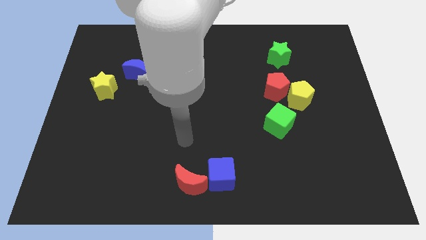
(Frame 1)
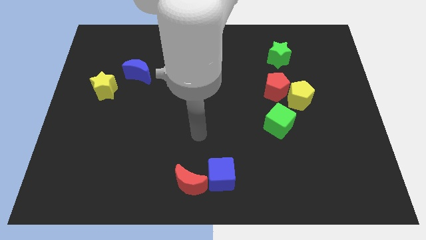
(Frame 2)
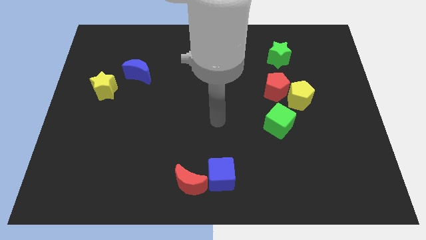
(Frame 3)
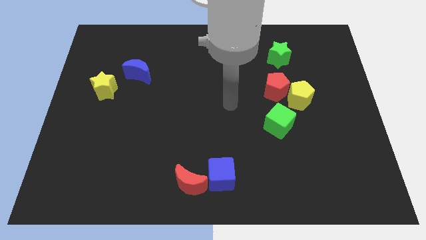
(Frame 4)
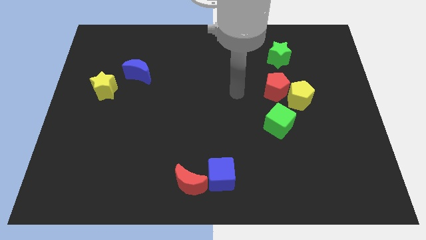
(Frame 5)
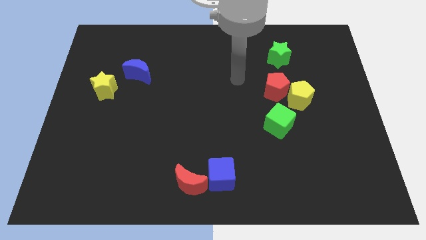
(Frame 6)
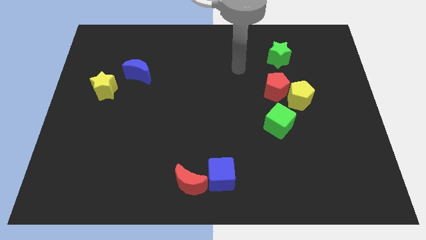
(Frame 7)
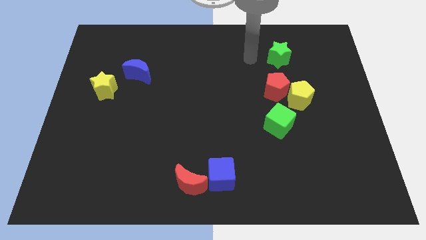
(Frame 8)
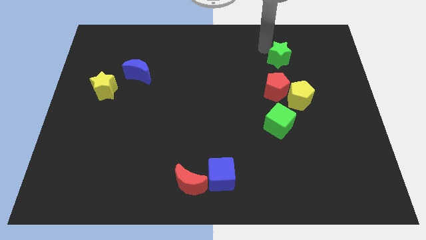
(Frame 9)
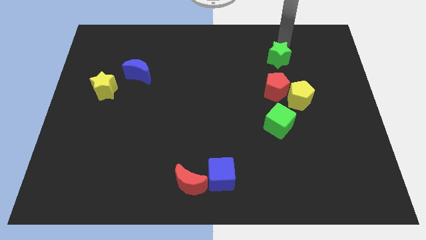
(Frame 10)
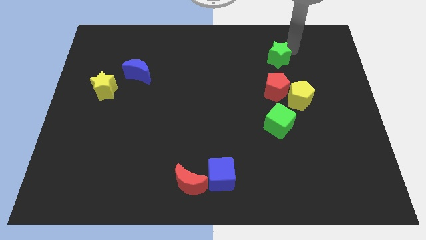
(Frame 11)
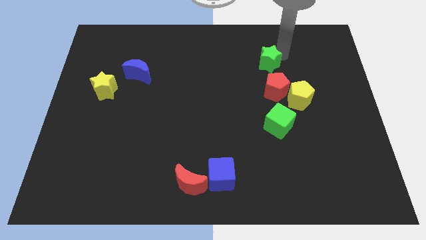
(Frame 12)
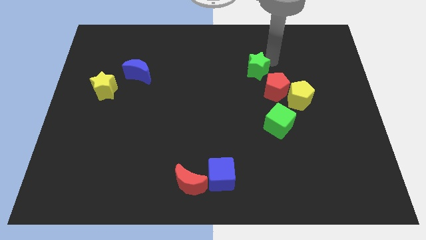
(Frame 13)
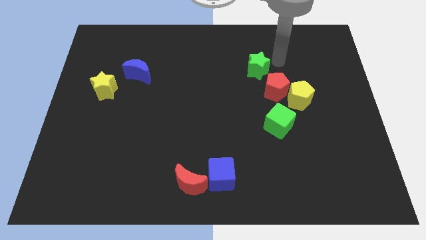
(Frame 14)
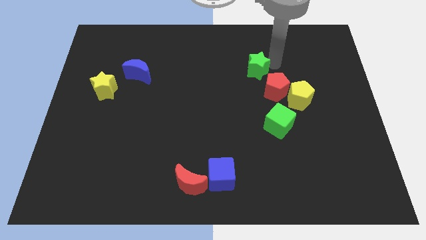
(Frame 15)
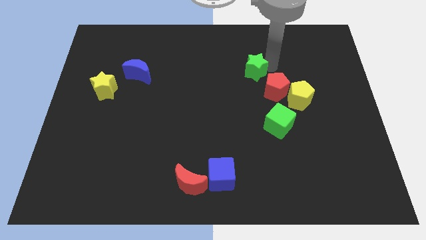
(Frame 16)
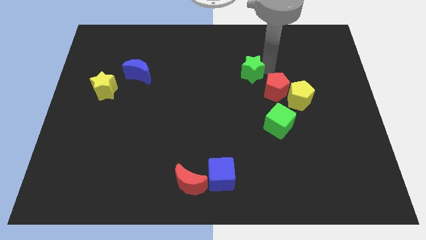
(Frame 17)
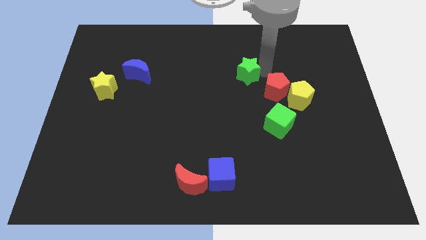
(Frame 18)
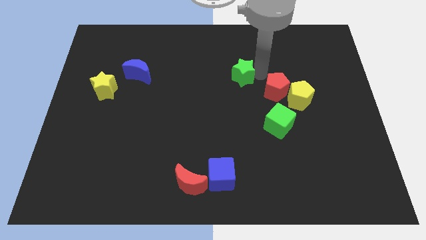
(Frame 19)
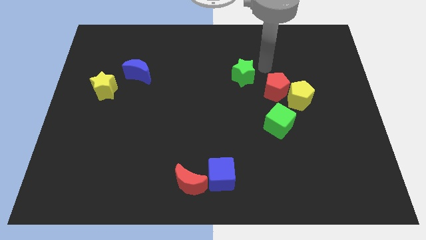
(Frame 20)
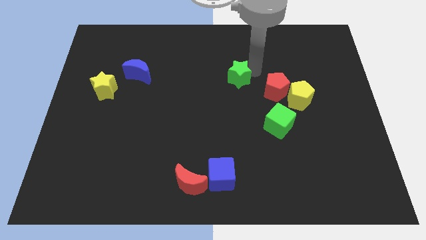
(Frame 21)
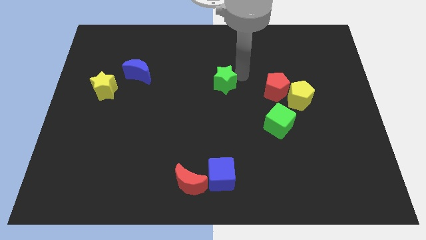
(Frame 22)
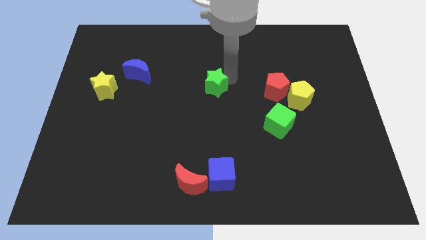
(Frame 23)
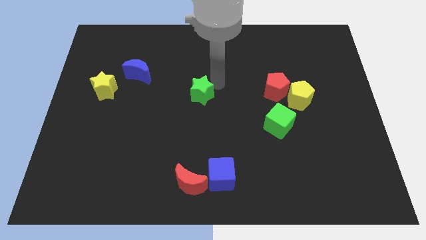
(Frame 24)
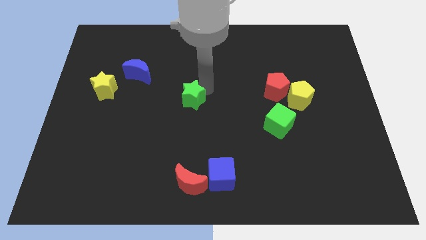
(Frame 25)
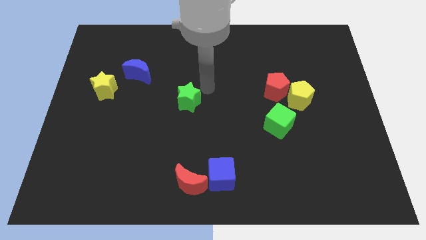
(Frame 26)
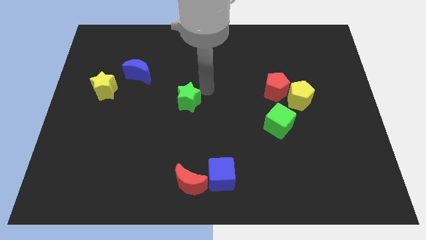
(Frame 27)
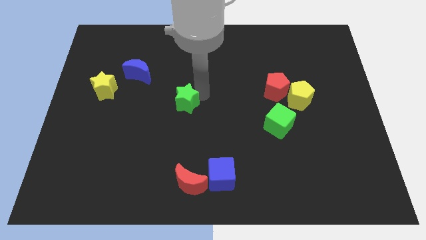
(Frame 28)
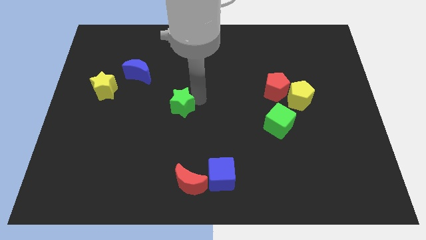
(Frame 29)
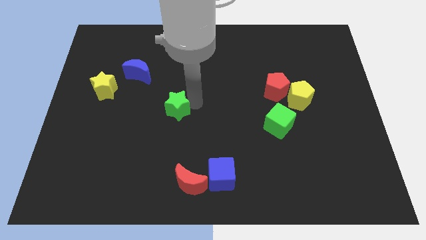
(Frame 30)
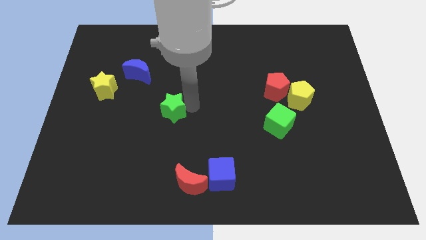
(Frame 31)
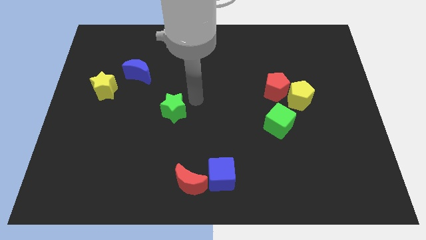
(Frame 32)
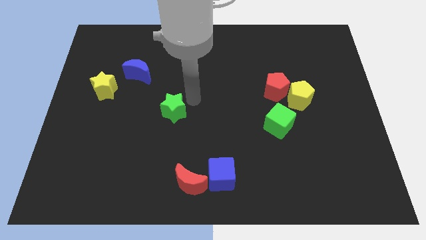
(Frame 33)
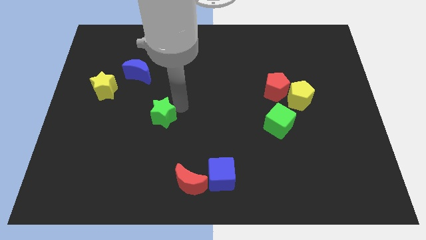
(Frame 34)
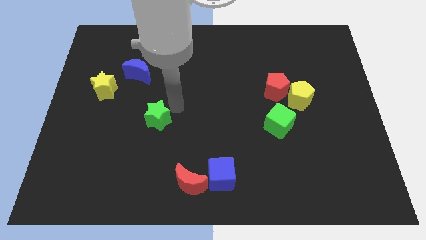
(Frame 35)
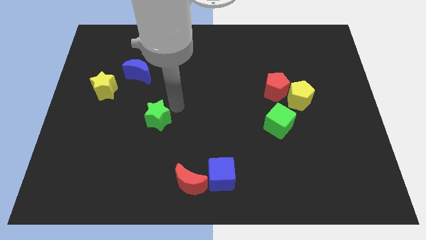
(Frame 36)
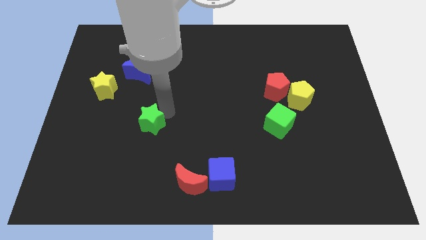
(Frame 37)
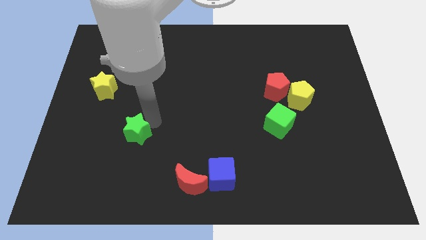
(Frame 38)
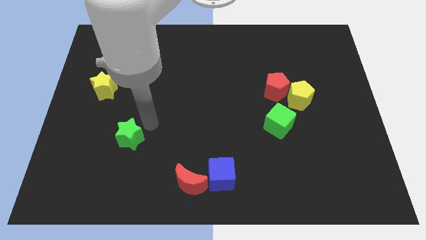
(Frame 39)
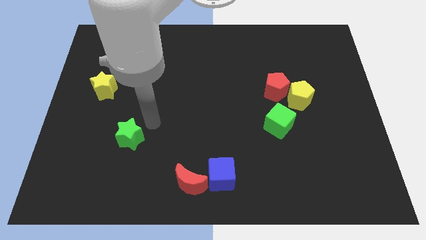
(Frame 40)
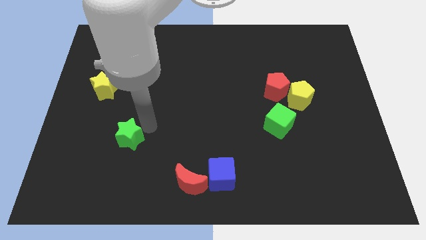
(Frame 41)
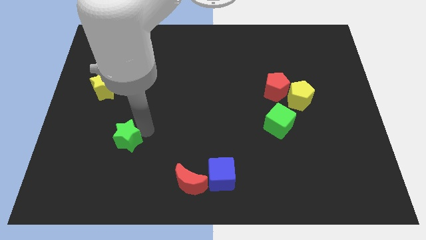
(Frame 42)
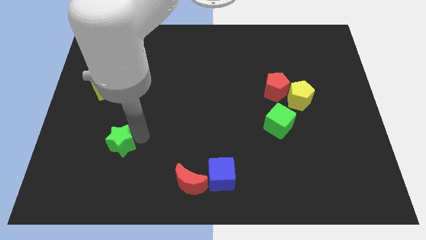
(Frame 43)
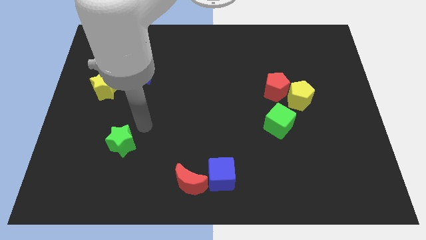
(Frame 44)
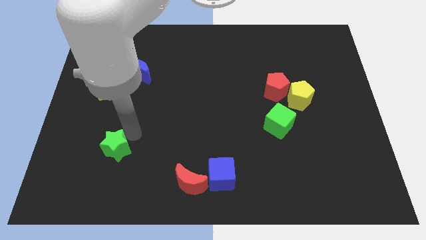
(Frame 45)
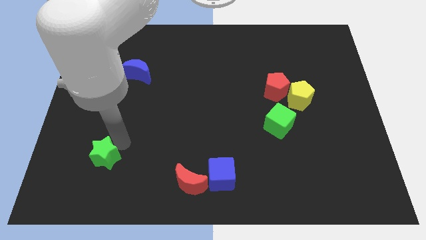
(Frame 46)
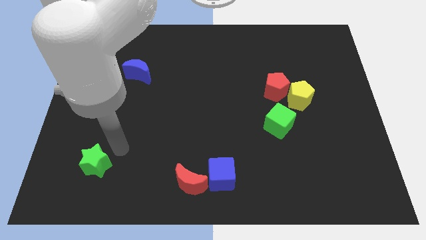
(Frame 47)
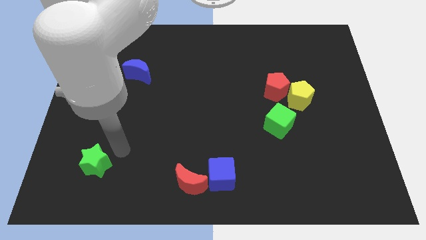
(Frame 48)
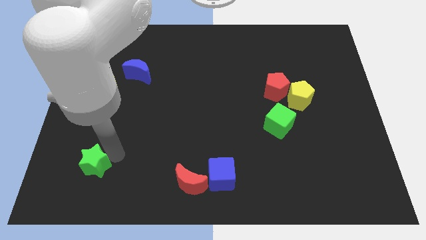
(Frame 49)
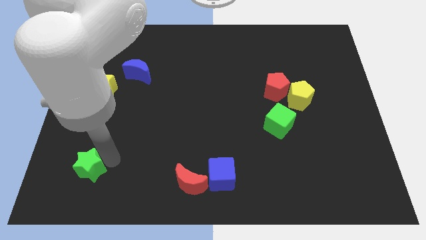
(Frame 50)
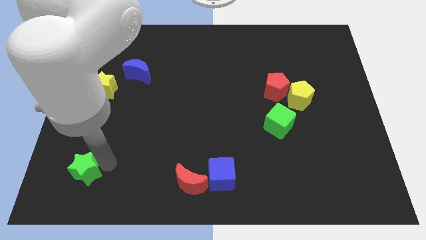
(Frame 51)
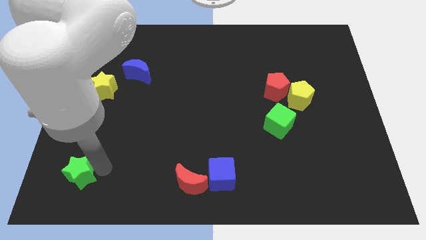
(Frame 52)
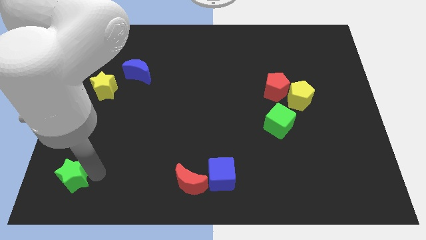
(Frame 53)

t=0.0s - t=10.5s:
put the green star to the bottom left of the board

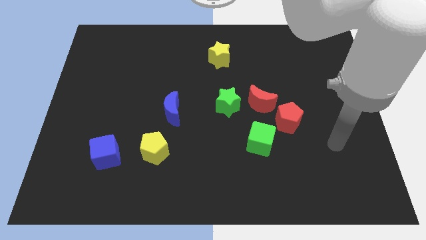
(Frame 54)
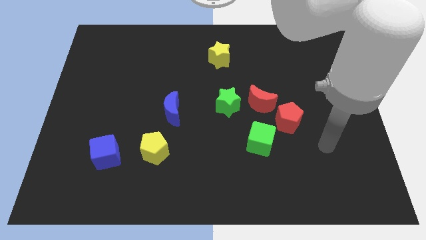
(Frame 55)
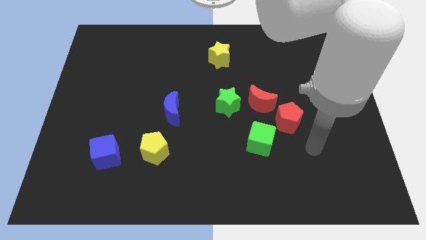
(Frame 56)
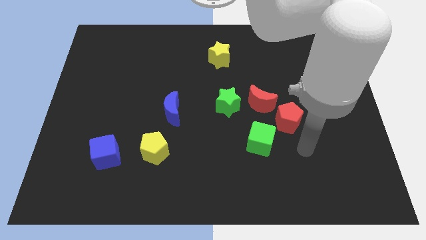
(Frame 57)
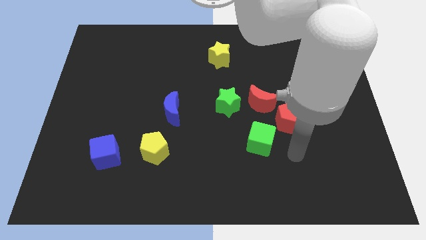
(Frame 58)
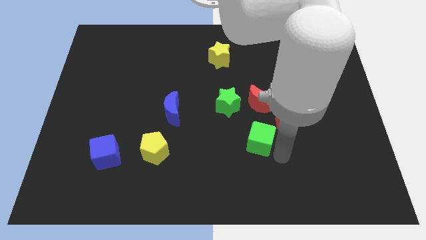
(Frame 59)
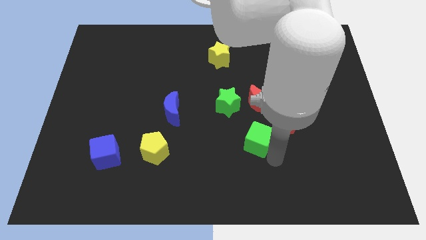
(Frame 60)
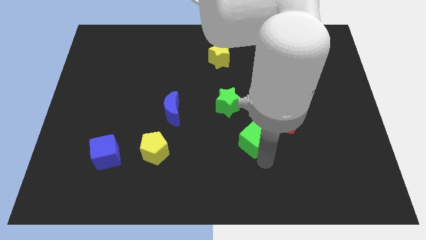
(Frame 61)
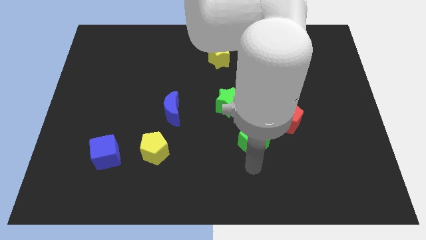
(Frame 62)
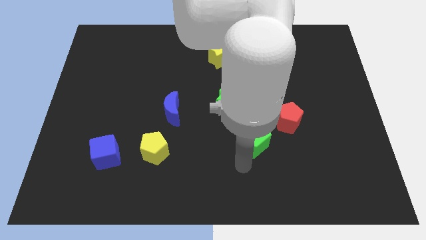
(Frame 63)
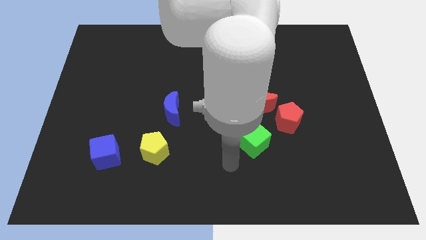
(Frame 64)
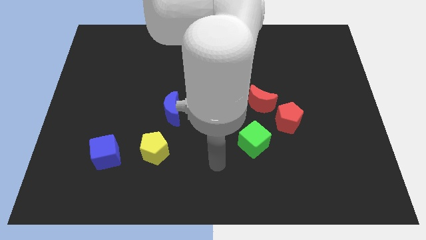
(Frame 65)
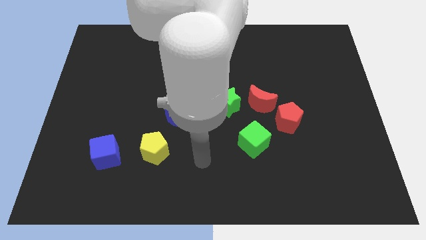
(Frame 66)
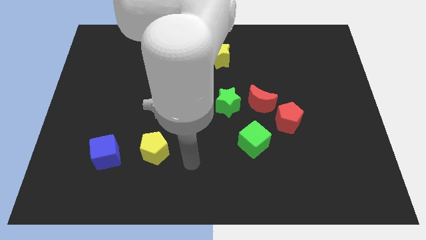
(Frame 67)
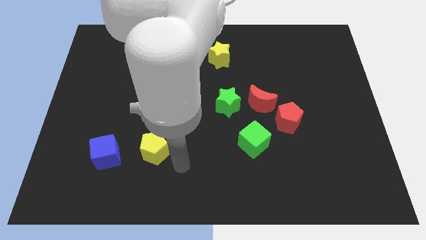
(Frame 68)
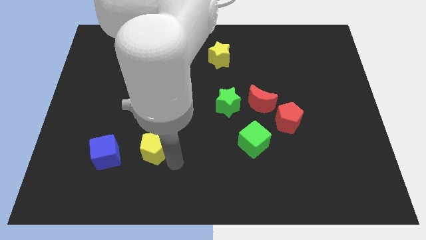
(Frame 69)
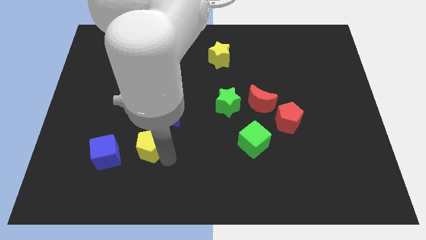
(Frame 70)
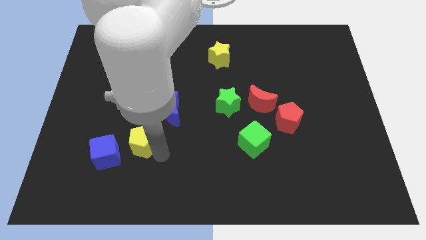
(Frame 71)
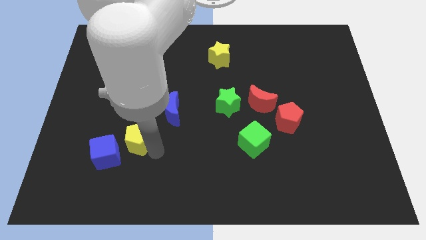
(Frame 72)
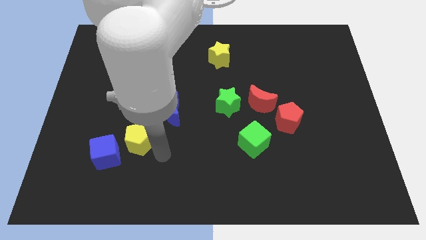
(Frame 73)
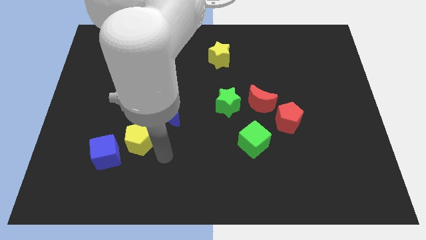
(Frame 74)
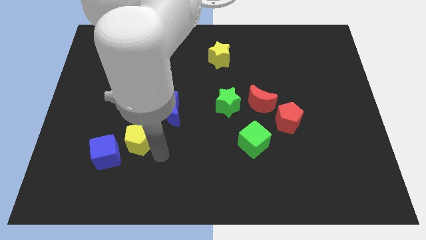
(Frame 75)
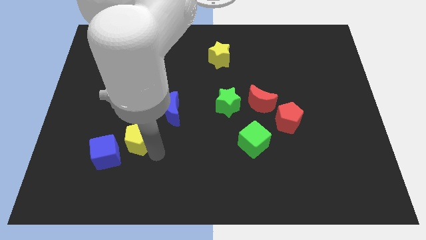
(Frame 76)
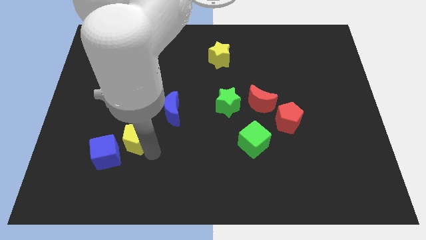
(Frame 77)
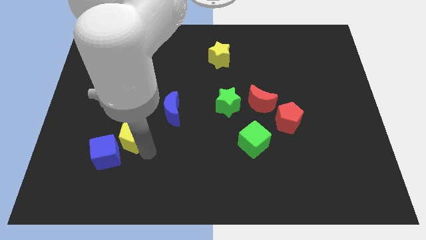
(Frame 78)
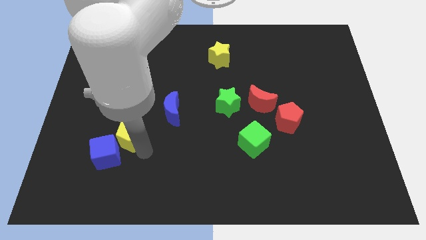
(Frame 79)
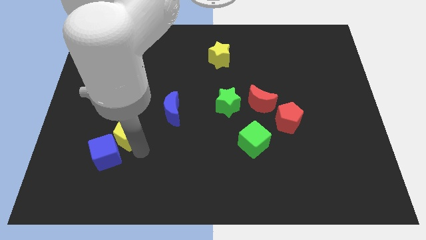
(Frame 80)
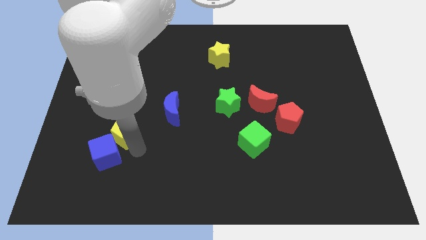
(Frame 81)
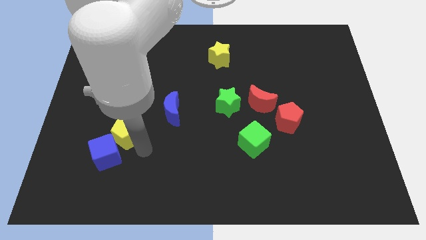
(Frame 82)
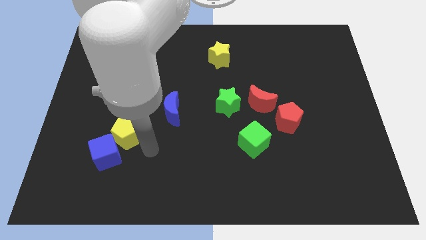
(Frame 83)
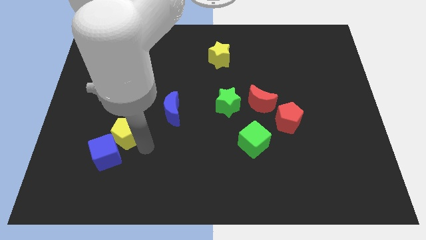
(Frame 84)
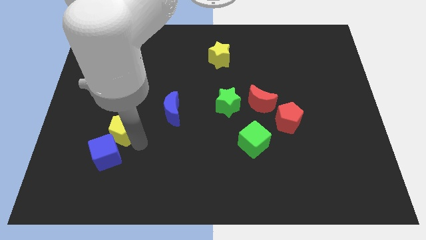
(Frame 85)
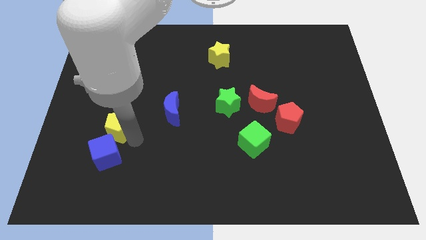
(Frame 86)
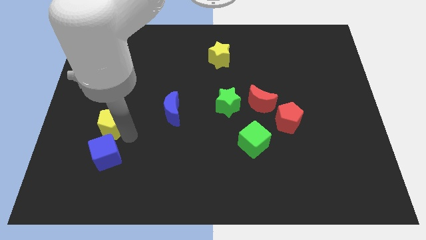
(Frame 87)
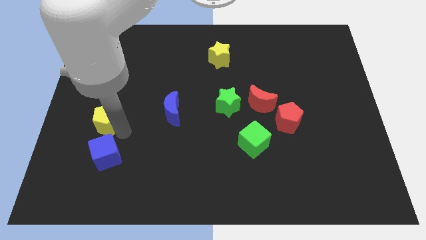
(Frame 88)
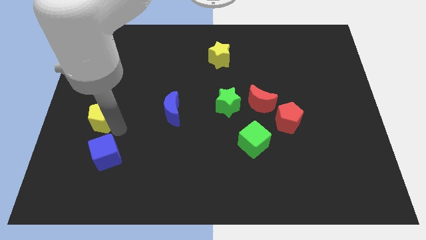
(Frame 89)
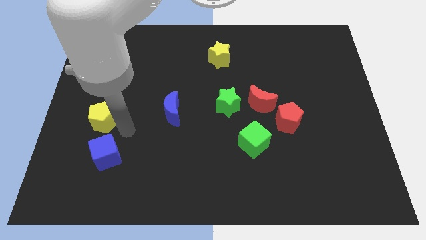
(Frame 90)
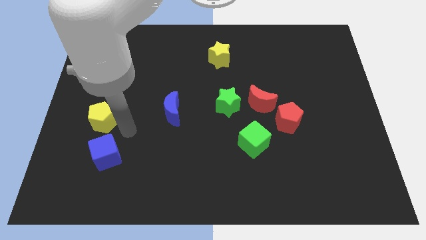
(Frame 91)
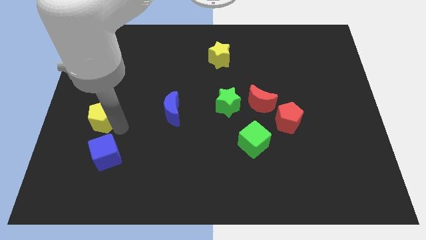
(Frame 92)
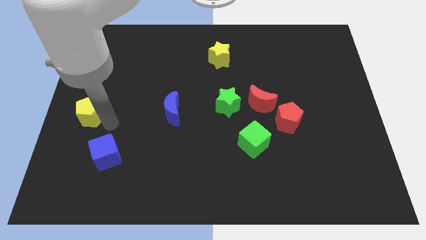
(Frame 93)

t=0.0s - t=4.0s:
push the yellow pentagon to the left side of the board
